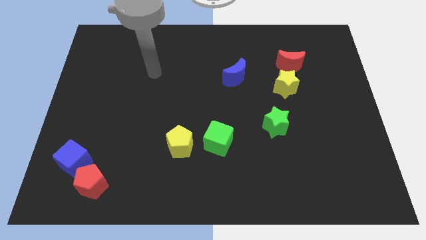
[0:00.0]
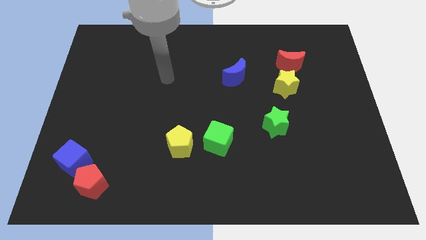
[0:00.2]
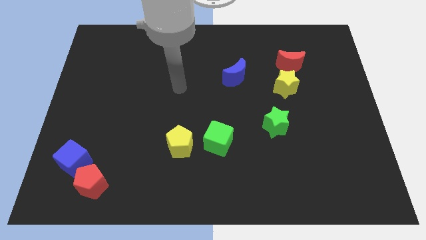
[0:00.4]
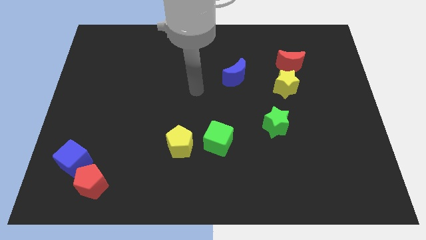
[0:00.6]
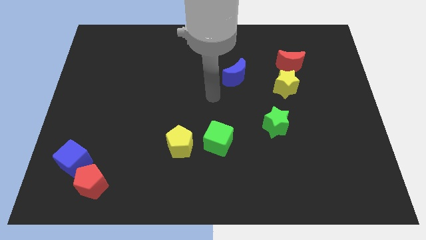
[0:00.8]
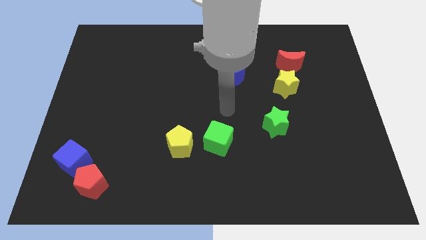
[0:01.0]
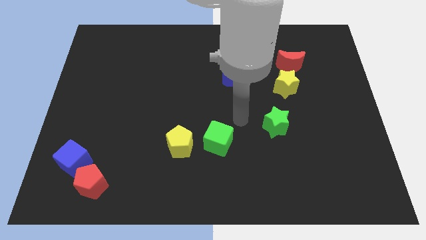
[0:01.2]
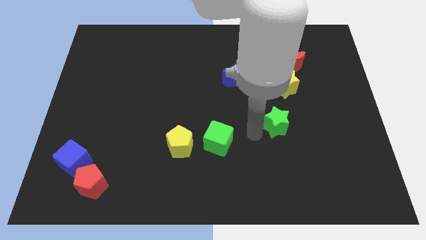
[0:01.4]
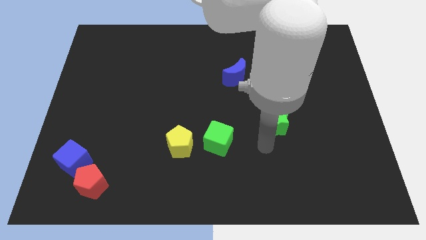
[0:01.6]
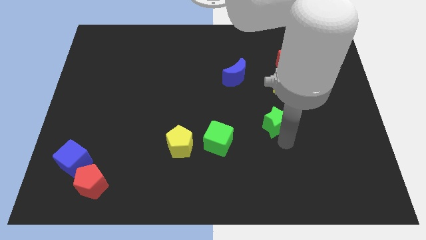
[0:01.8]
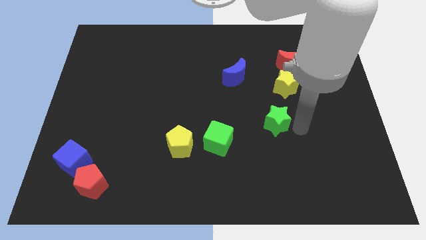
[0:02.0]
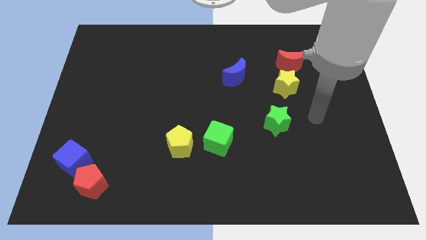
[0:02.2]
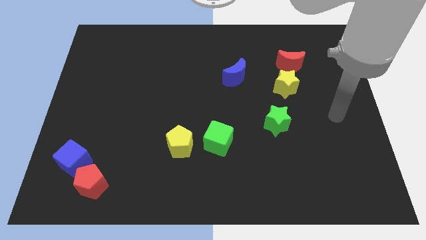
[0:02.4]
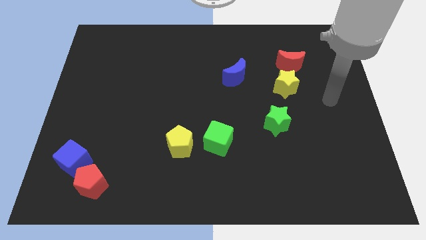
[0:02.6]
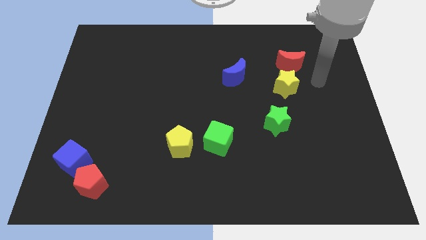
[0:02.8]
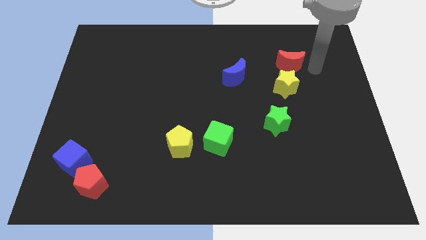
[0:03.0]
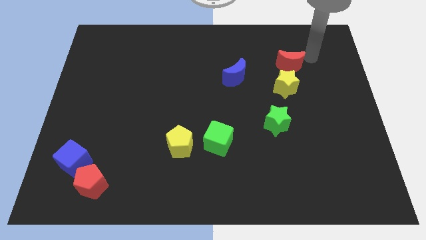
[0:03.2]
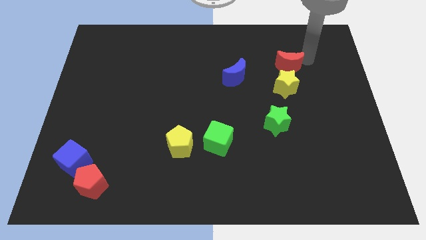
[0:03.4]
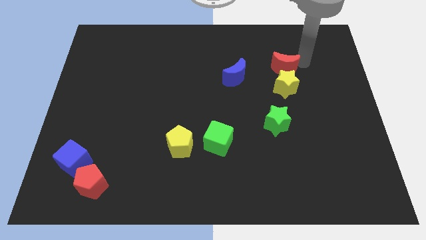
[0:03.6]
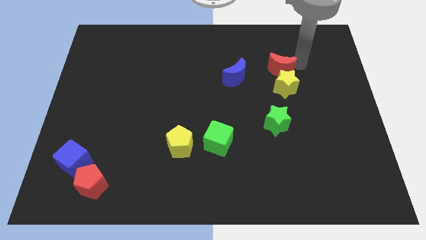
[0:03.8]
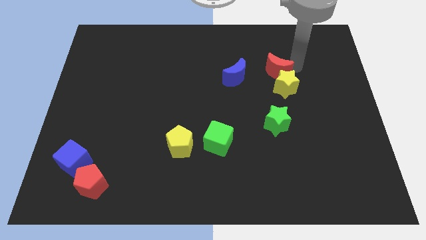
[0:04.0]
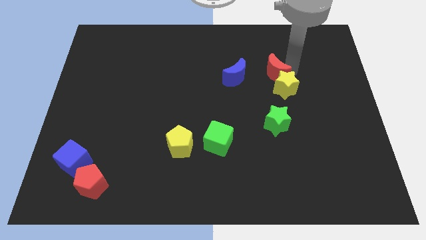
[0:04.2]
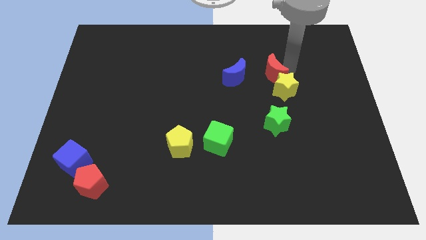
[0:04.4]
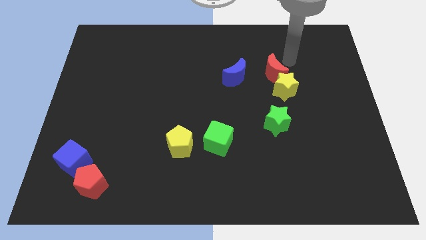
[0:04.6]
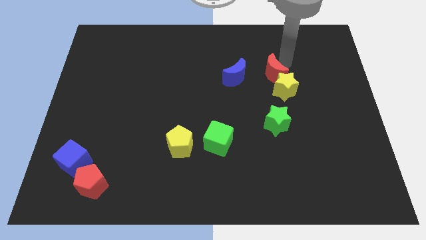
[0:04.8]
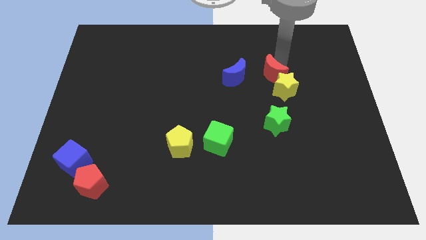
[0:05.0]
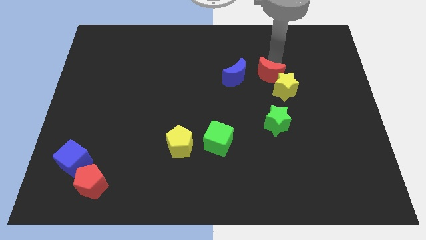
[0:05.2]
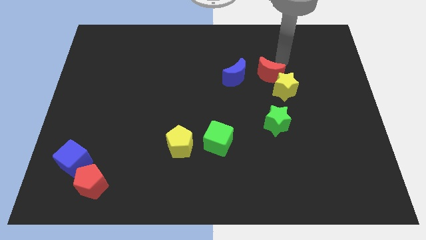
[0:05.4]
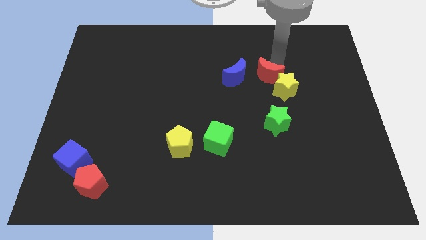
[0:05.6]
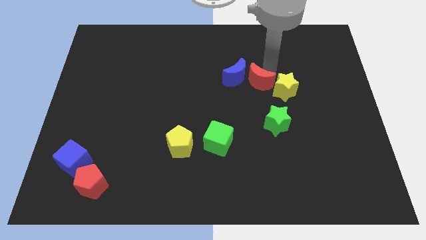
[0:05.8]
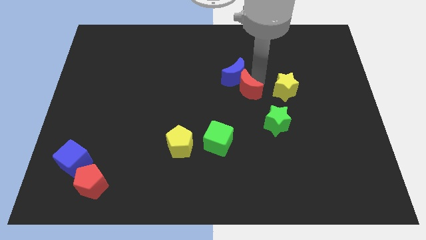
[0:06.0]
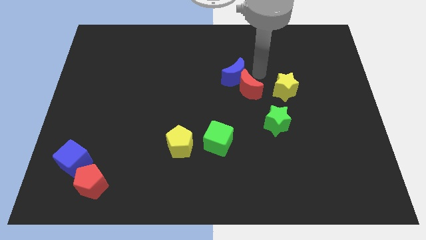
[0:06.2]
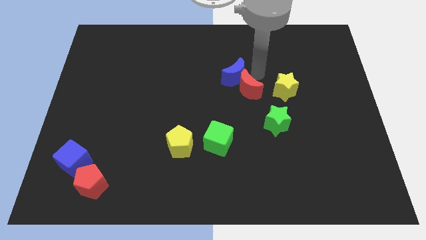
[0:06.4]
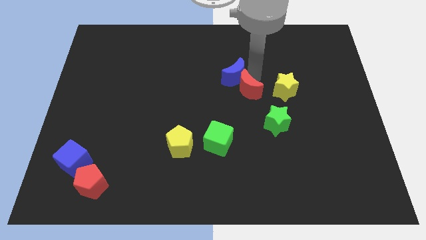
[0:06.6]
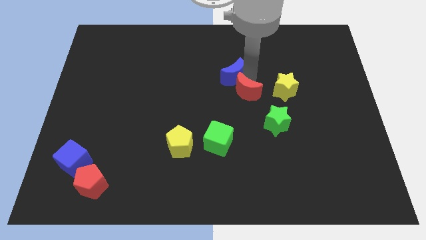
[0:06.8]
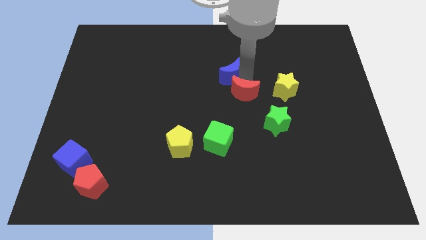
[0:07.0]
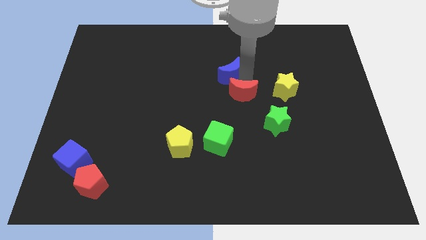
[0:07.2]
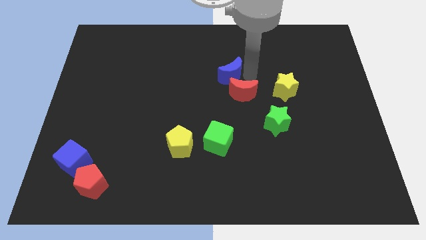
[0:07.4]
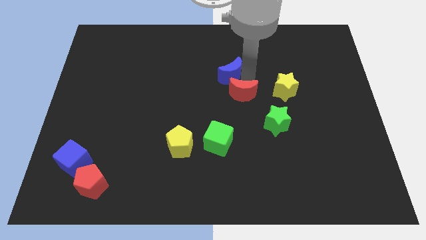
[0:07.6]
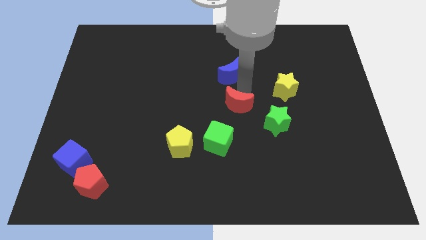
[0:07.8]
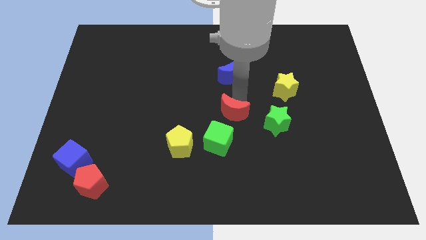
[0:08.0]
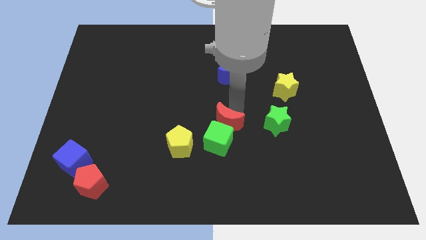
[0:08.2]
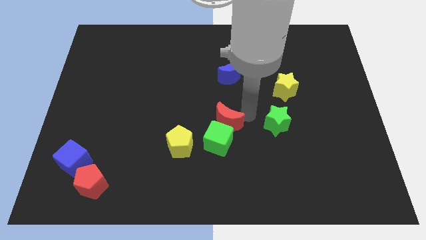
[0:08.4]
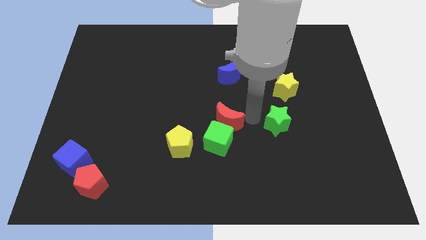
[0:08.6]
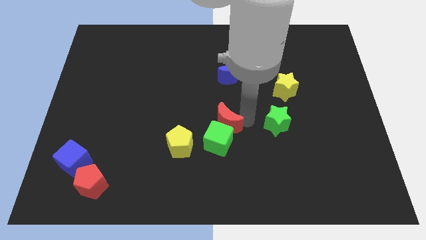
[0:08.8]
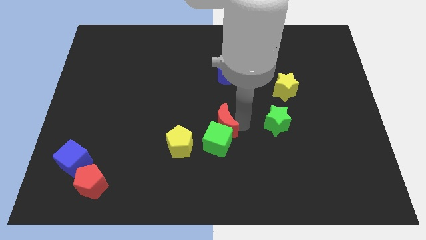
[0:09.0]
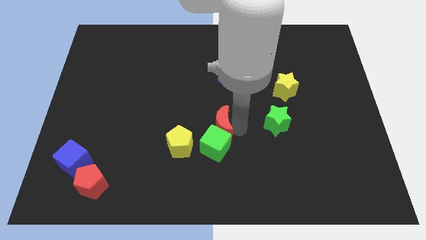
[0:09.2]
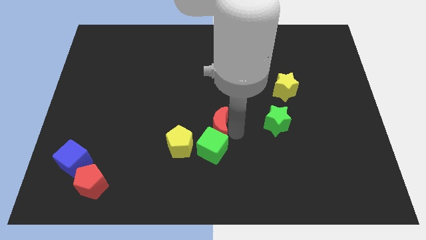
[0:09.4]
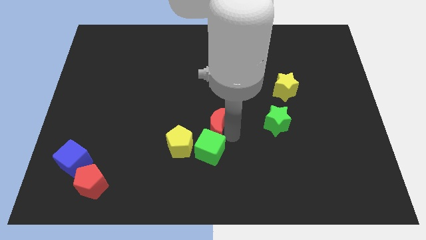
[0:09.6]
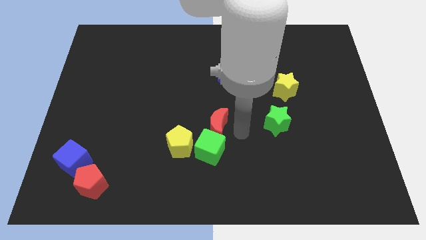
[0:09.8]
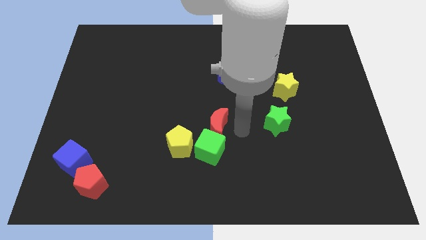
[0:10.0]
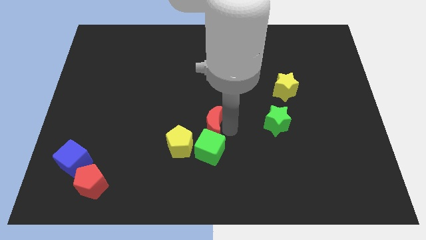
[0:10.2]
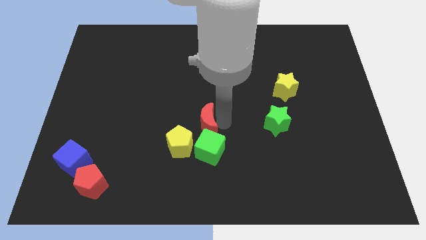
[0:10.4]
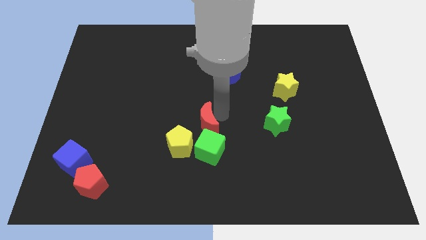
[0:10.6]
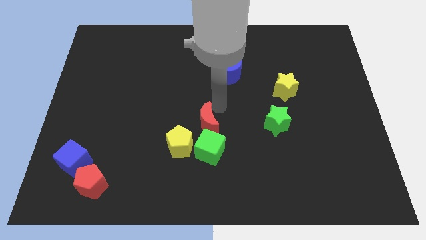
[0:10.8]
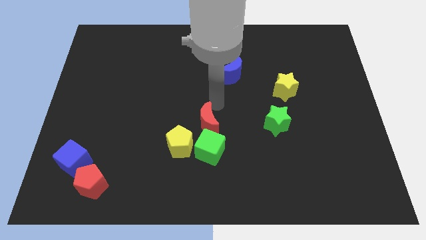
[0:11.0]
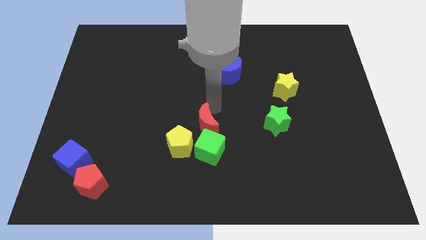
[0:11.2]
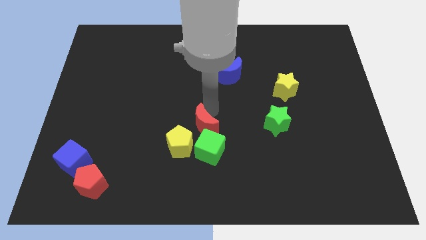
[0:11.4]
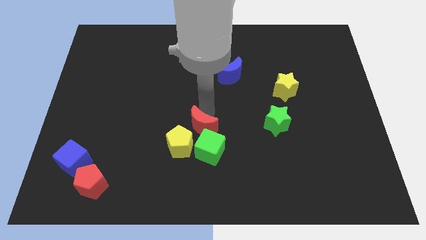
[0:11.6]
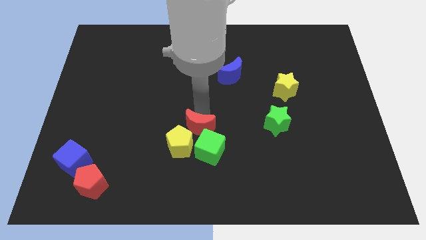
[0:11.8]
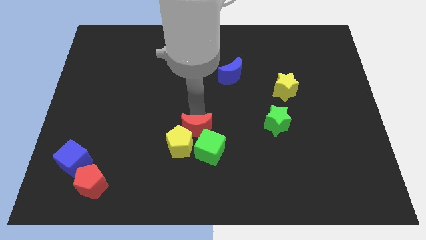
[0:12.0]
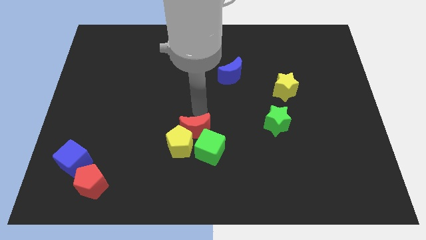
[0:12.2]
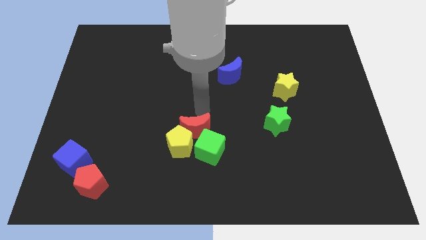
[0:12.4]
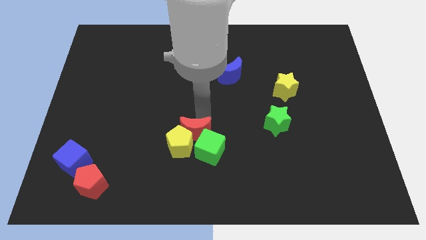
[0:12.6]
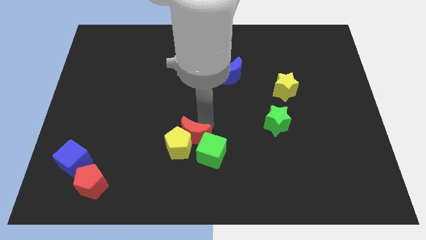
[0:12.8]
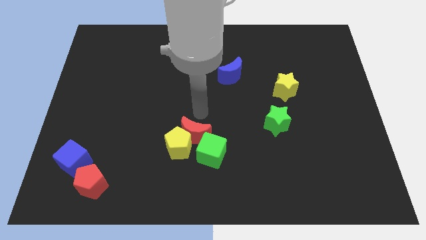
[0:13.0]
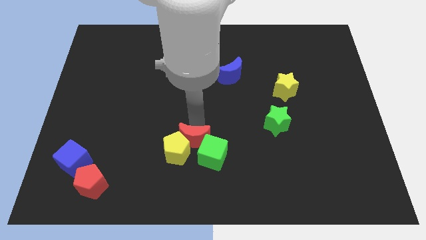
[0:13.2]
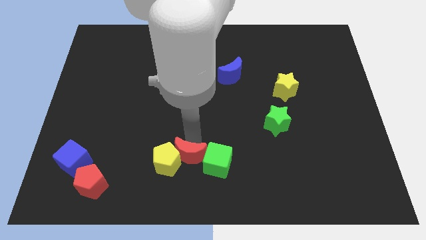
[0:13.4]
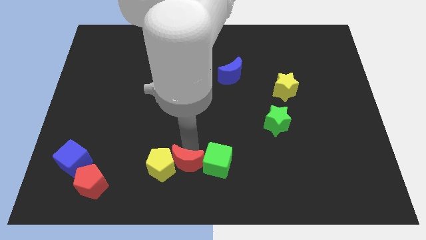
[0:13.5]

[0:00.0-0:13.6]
put the red moon to the bottom left of the green cube

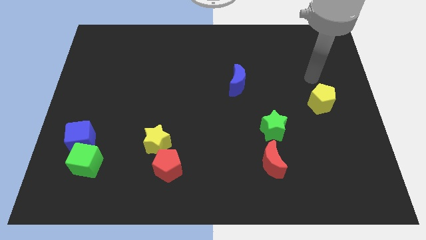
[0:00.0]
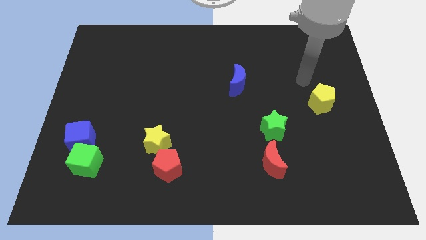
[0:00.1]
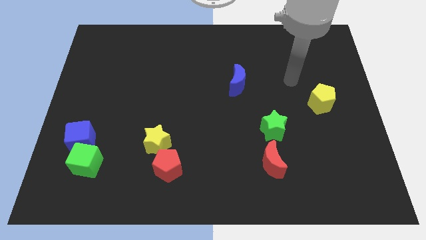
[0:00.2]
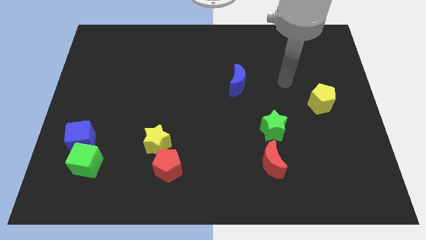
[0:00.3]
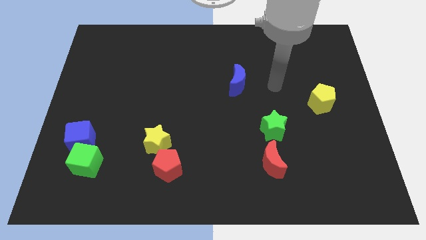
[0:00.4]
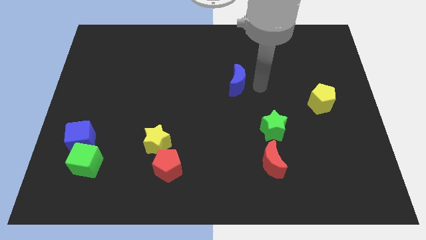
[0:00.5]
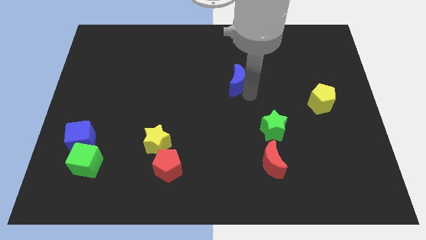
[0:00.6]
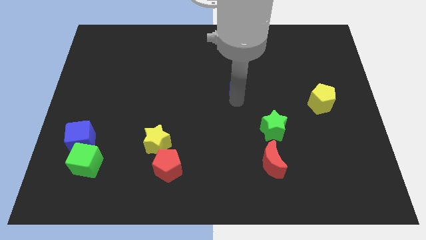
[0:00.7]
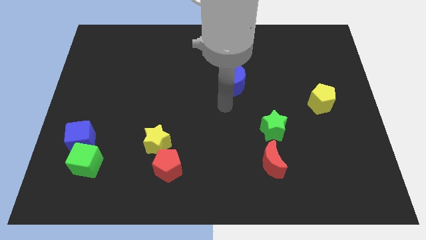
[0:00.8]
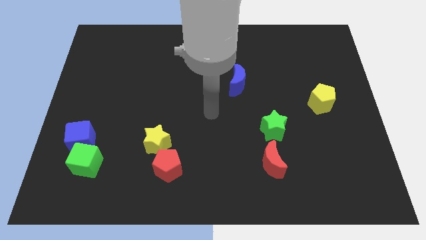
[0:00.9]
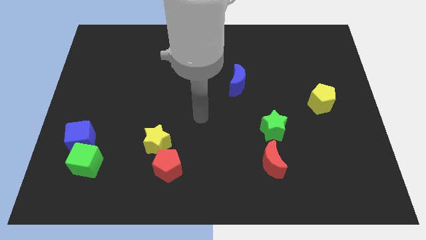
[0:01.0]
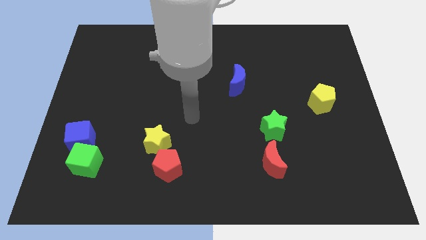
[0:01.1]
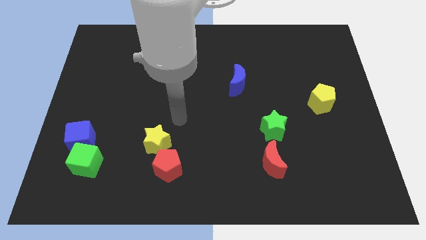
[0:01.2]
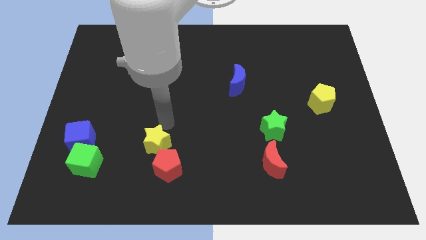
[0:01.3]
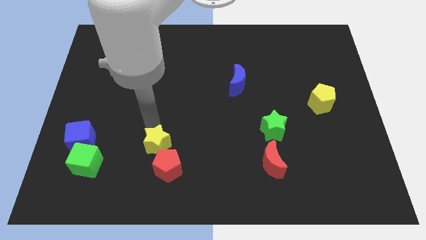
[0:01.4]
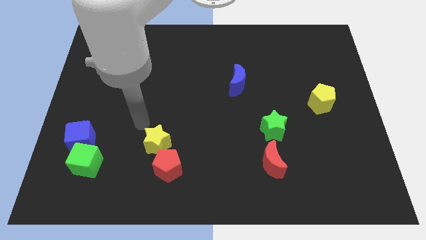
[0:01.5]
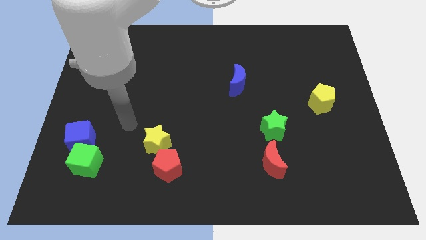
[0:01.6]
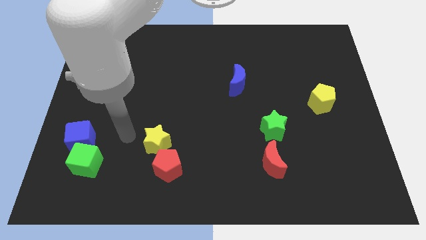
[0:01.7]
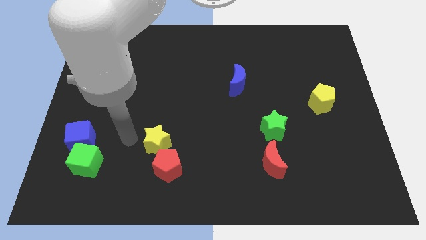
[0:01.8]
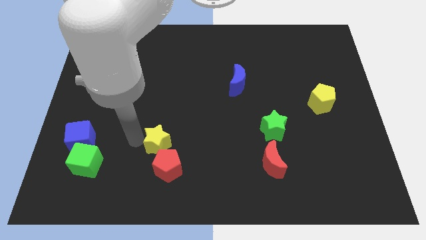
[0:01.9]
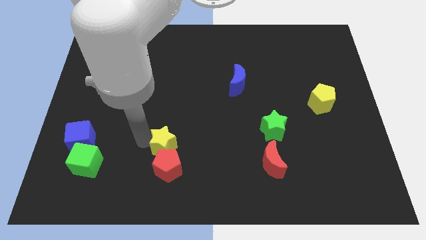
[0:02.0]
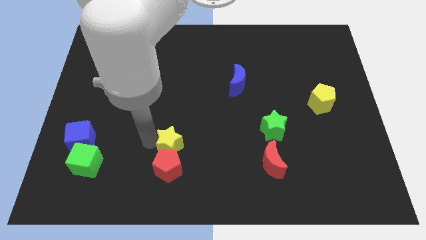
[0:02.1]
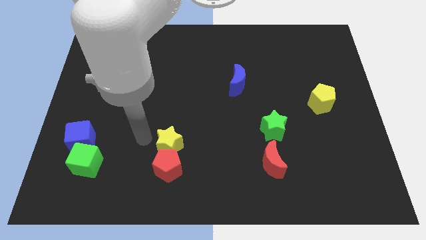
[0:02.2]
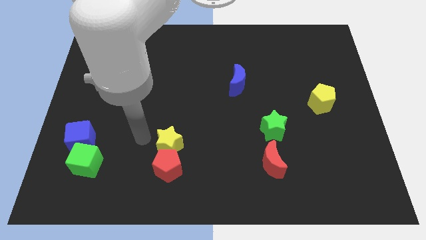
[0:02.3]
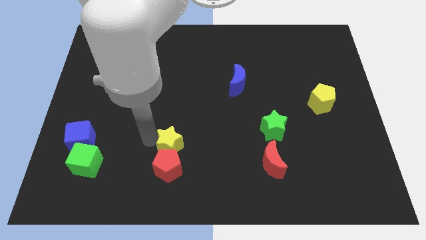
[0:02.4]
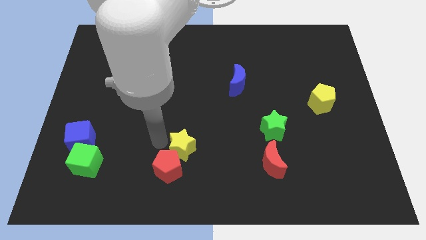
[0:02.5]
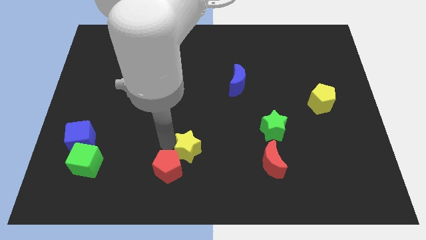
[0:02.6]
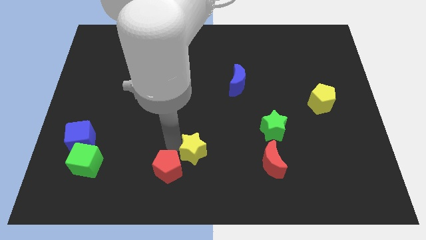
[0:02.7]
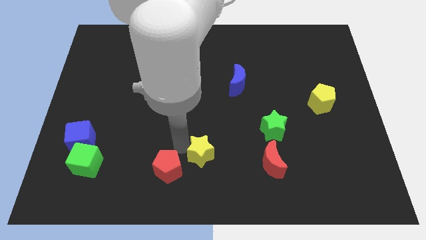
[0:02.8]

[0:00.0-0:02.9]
put the yellow star to the left side of the red moon
